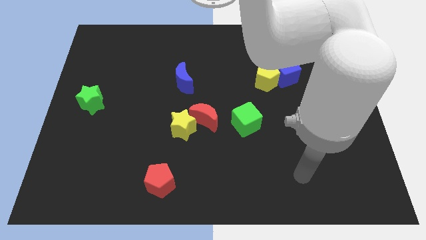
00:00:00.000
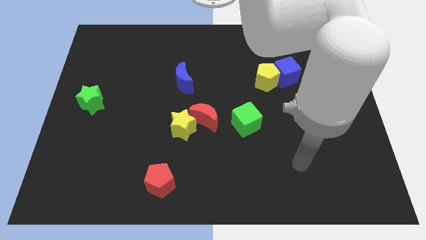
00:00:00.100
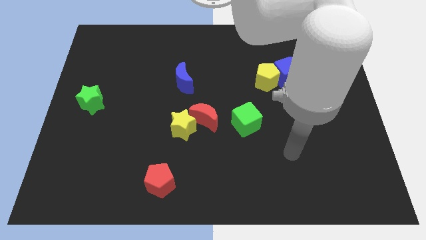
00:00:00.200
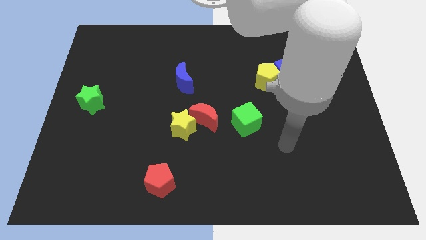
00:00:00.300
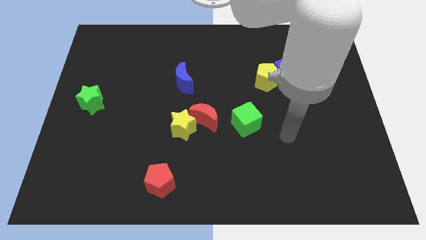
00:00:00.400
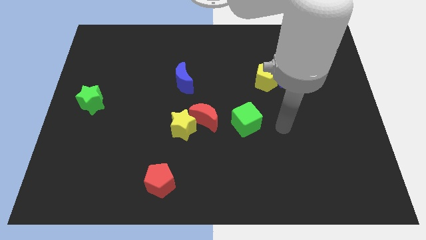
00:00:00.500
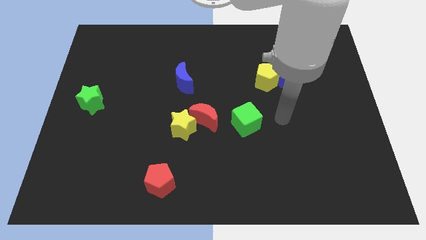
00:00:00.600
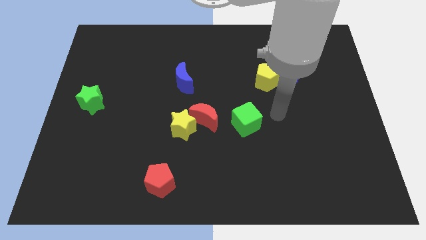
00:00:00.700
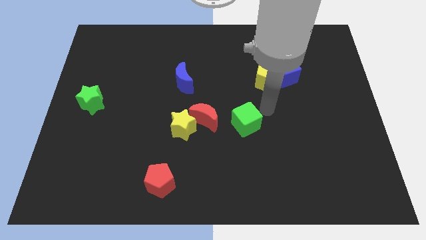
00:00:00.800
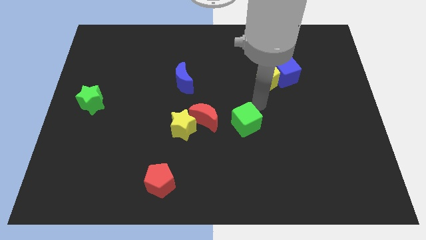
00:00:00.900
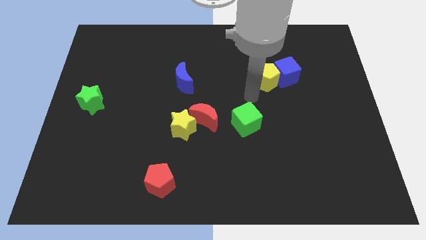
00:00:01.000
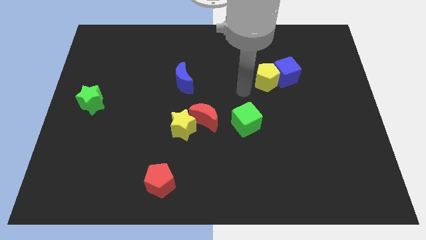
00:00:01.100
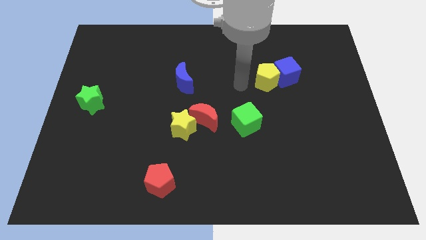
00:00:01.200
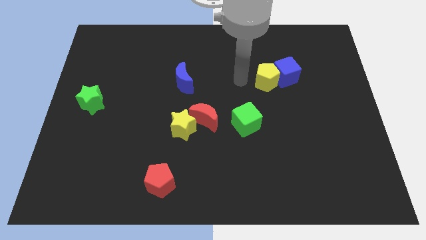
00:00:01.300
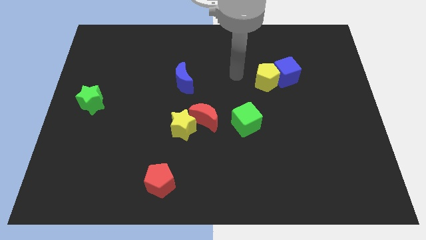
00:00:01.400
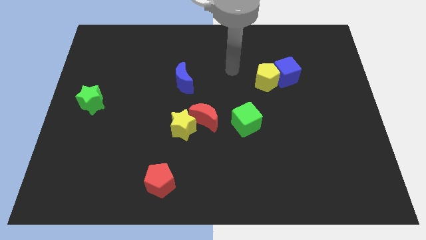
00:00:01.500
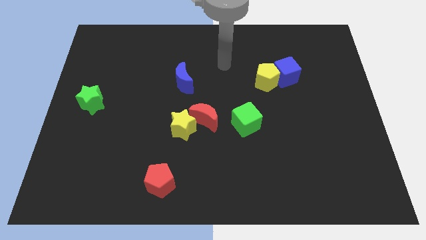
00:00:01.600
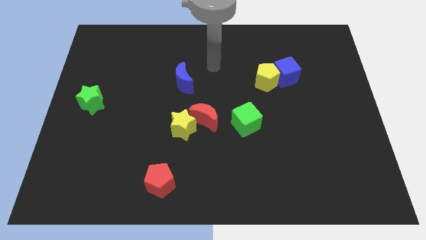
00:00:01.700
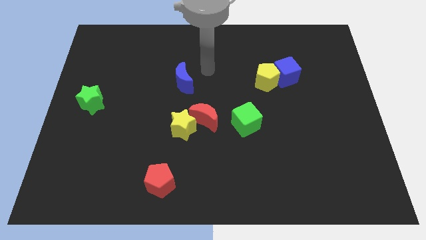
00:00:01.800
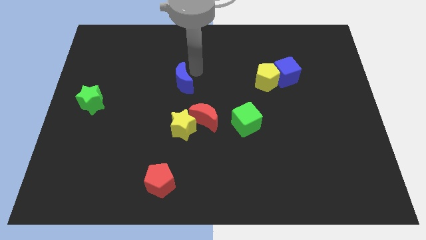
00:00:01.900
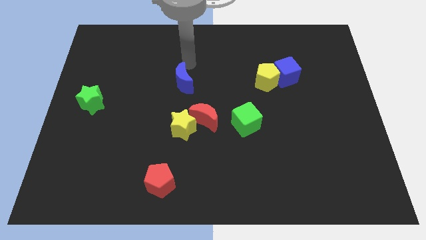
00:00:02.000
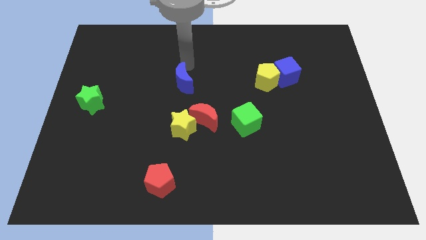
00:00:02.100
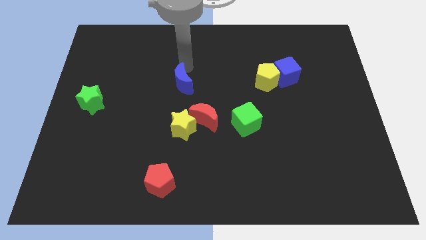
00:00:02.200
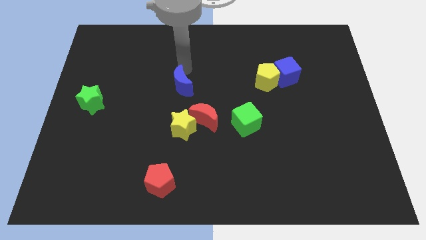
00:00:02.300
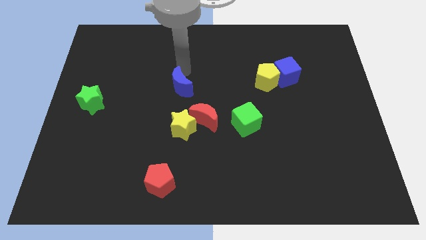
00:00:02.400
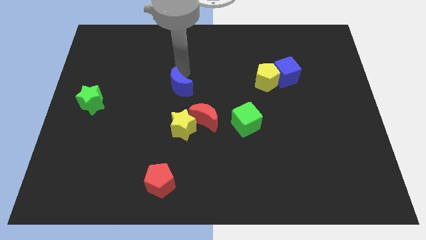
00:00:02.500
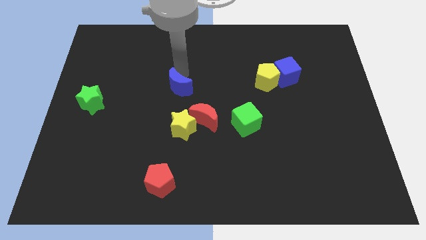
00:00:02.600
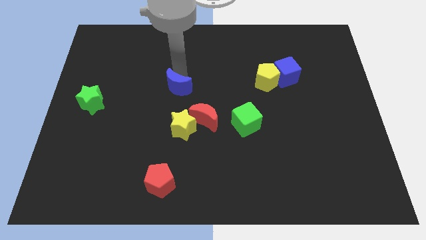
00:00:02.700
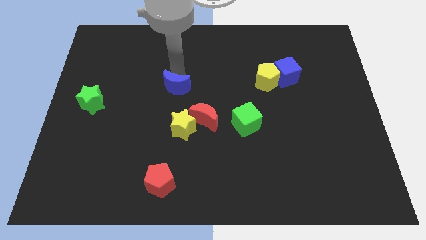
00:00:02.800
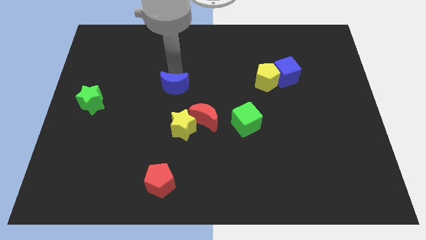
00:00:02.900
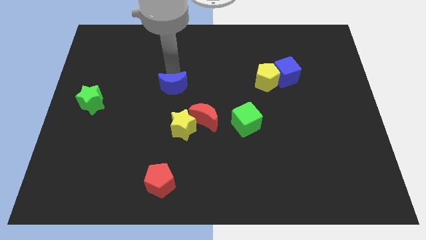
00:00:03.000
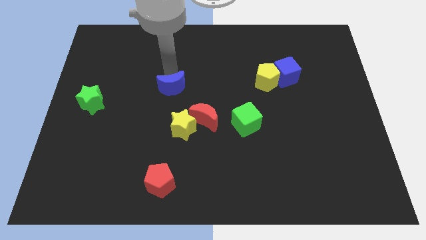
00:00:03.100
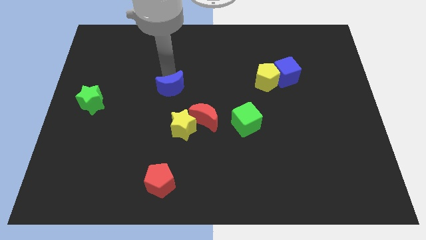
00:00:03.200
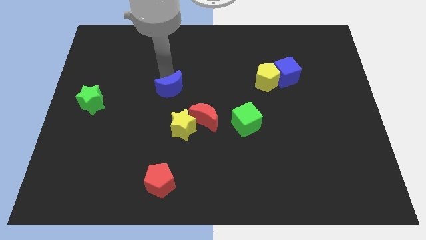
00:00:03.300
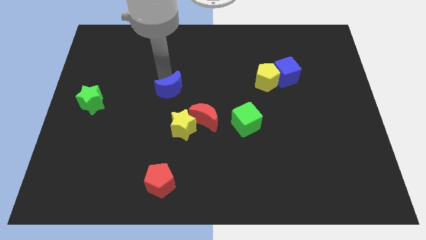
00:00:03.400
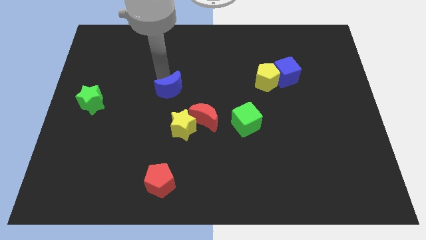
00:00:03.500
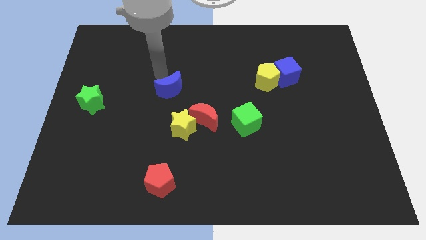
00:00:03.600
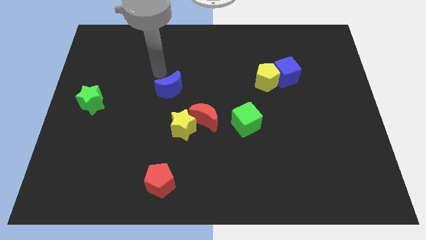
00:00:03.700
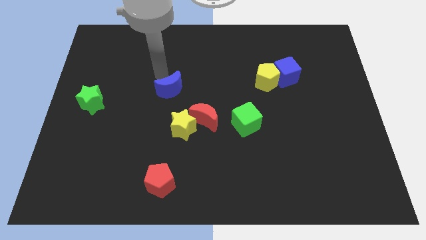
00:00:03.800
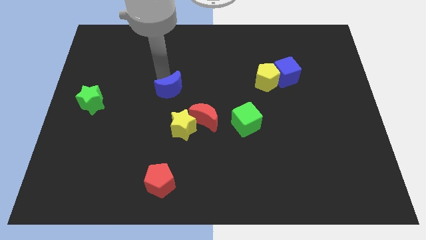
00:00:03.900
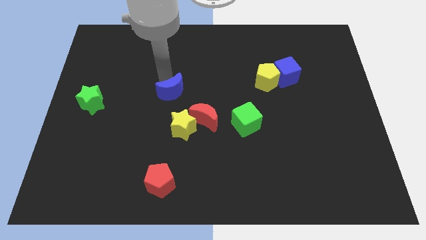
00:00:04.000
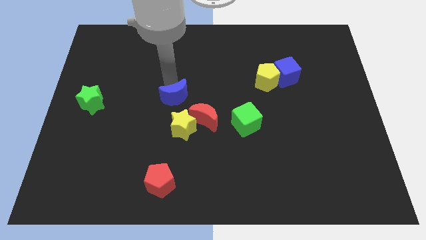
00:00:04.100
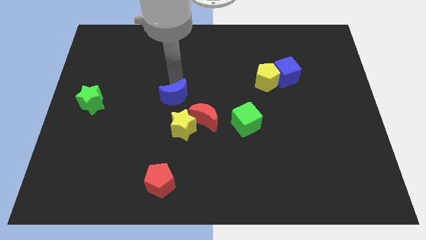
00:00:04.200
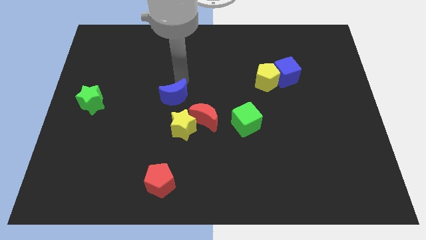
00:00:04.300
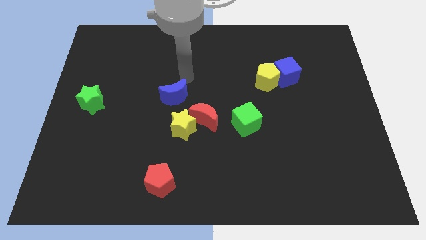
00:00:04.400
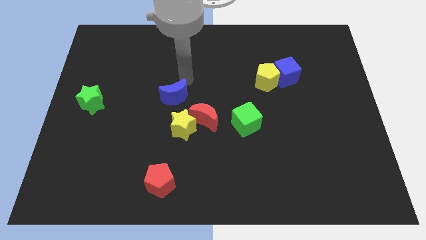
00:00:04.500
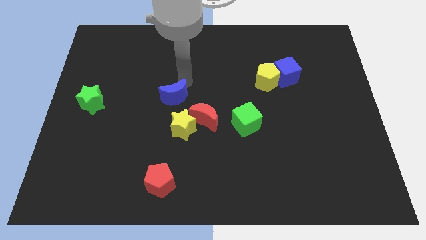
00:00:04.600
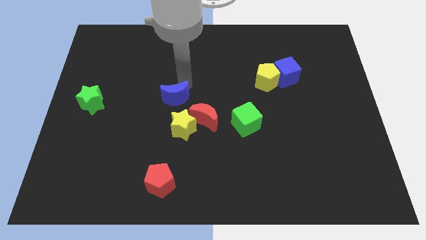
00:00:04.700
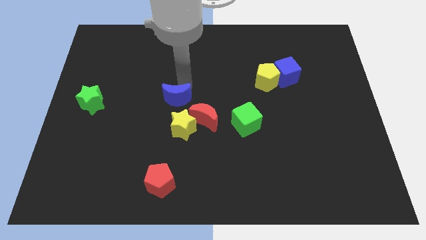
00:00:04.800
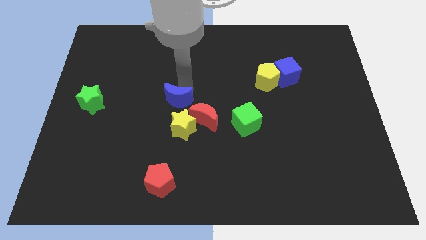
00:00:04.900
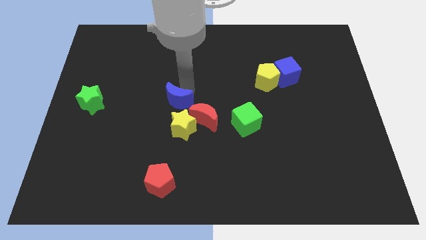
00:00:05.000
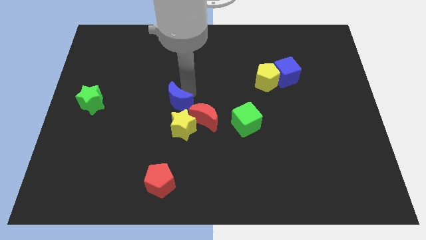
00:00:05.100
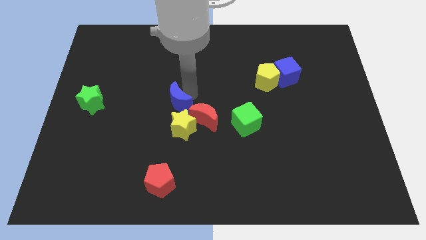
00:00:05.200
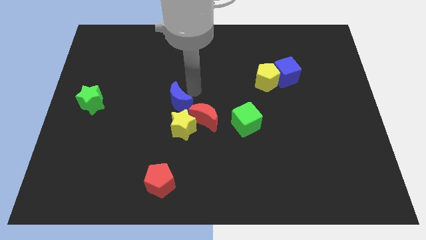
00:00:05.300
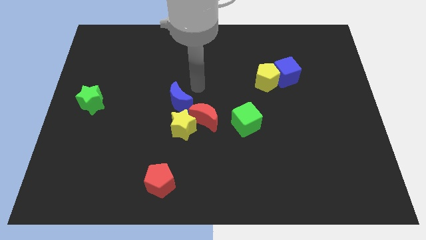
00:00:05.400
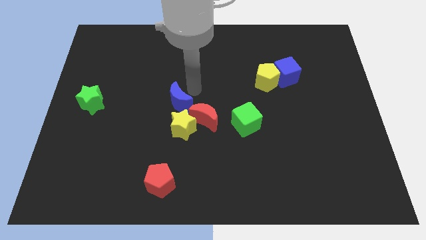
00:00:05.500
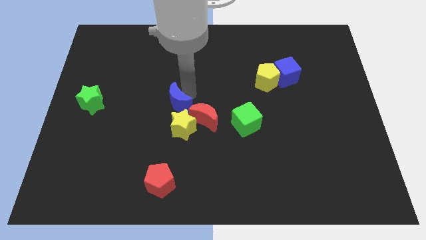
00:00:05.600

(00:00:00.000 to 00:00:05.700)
move the blue moon a bit down

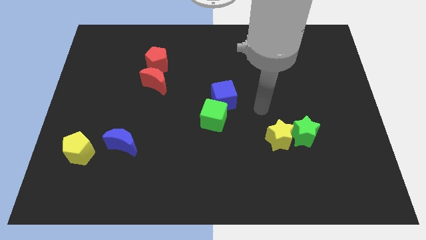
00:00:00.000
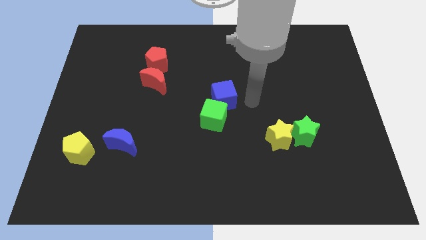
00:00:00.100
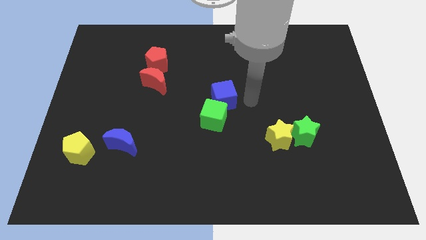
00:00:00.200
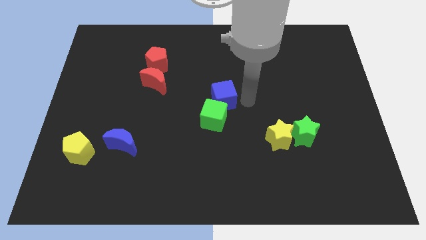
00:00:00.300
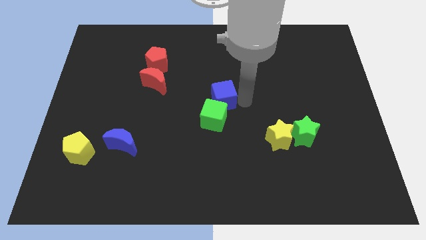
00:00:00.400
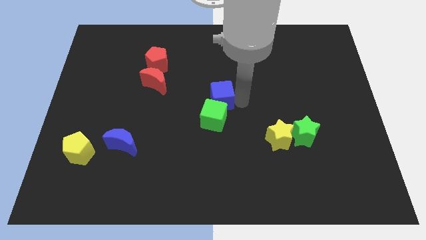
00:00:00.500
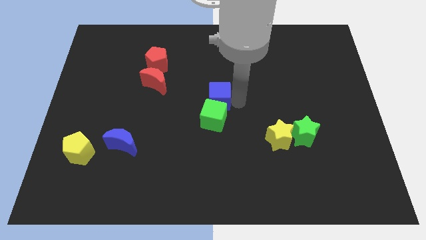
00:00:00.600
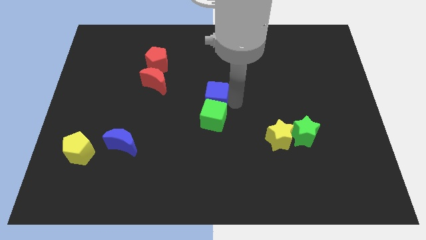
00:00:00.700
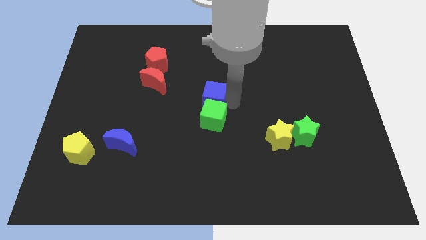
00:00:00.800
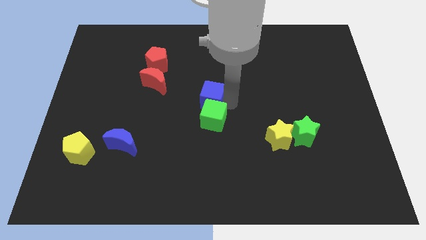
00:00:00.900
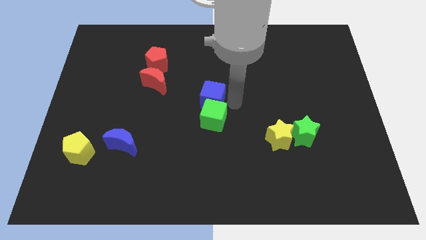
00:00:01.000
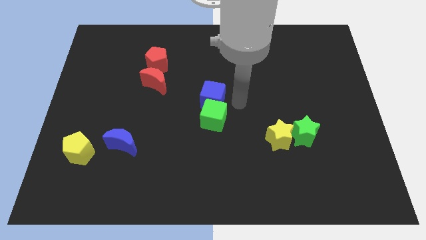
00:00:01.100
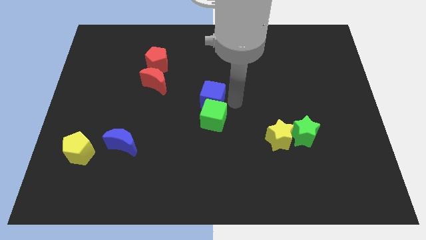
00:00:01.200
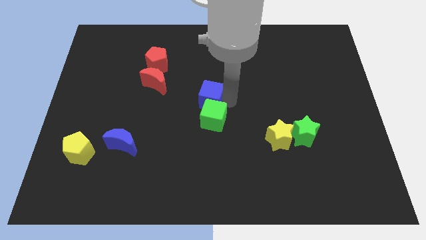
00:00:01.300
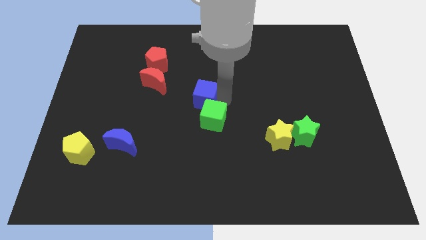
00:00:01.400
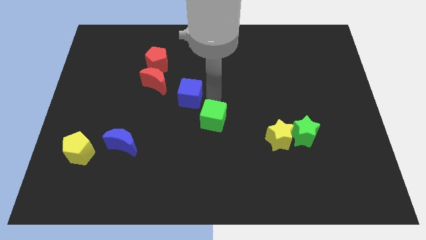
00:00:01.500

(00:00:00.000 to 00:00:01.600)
slide the blue cube to the left somewhat

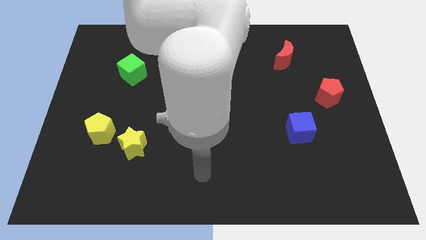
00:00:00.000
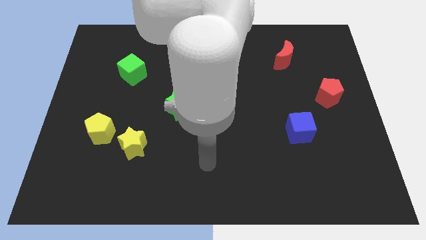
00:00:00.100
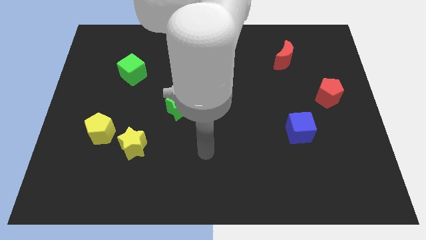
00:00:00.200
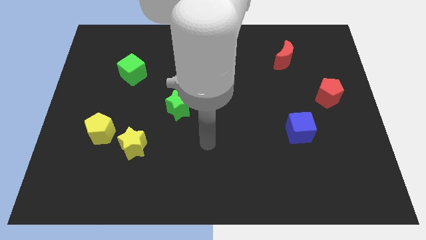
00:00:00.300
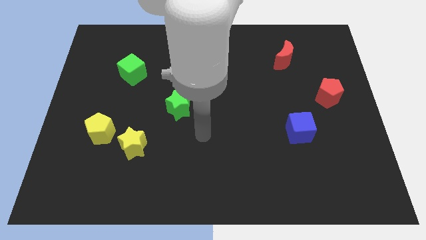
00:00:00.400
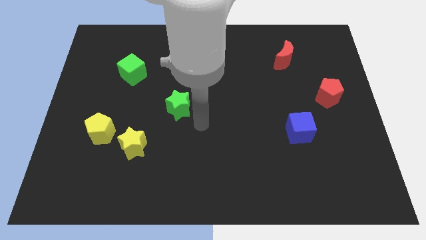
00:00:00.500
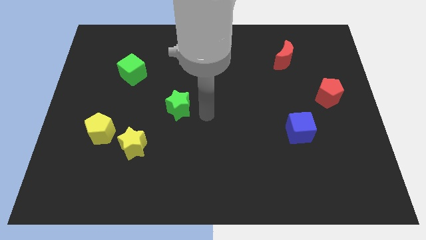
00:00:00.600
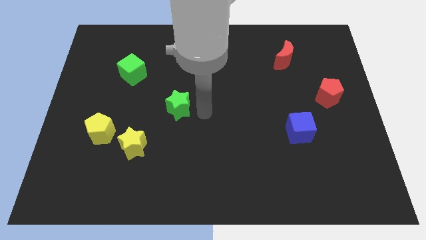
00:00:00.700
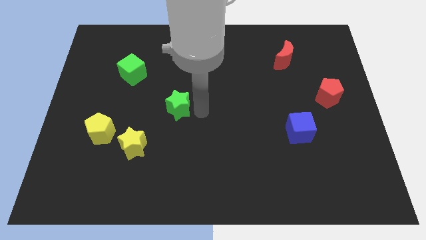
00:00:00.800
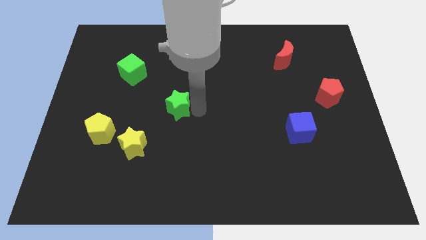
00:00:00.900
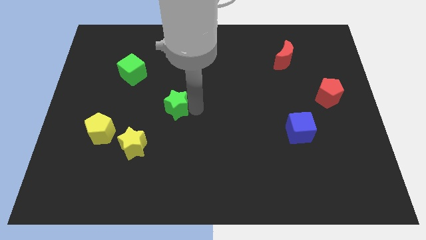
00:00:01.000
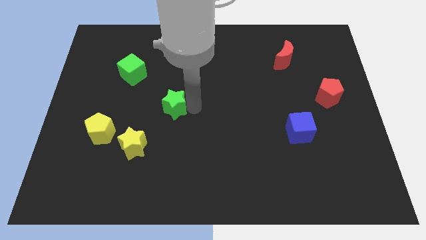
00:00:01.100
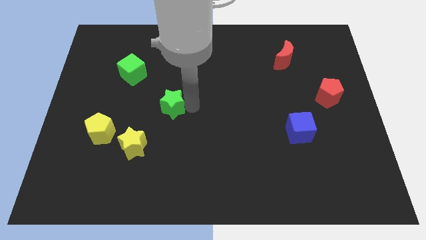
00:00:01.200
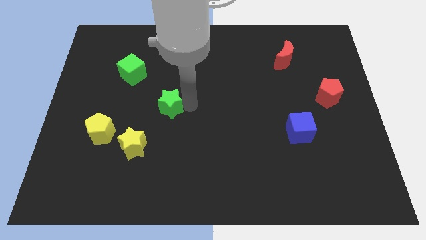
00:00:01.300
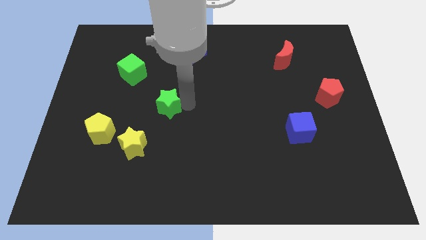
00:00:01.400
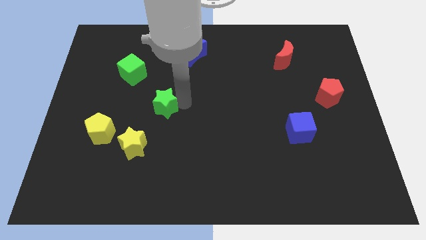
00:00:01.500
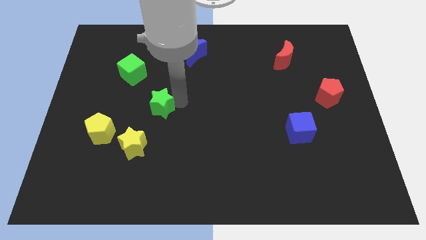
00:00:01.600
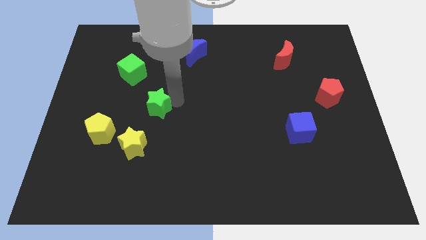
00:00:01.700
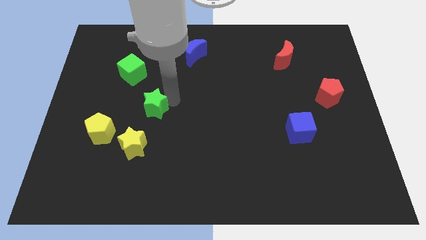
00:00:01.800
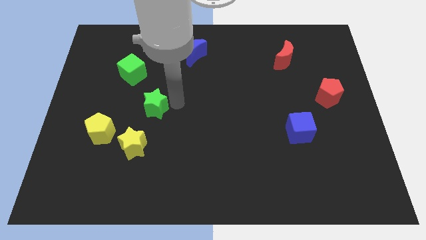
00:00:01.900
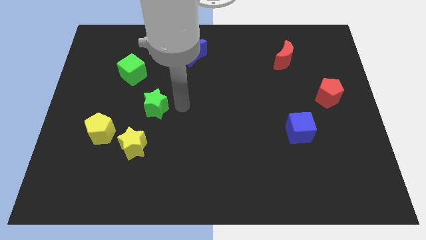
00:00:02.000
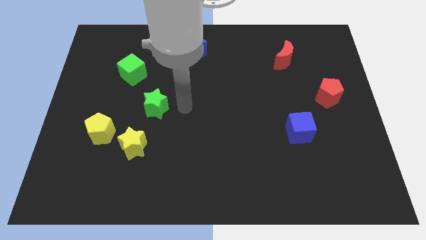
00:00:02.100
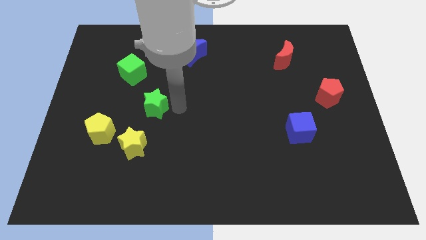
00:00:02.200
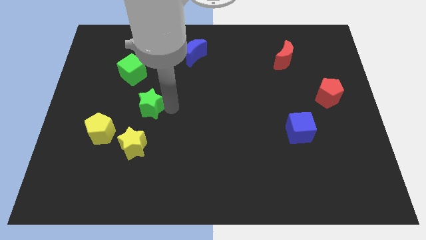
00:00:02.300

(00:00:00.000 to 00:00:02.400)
move the green star slightly to the left
